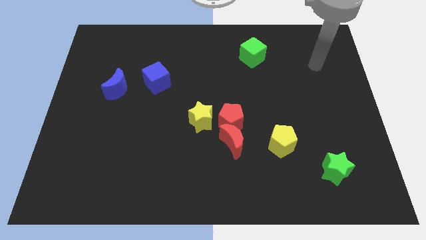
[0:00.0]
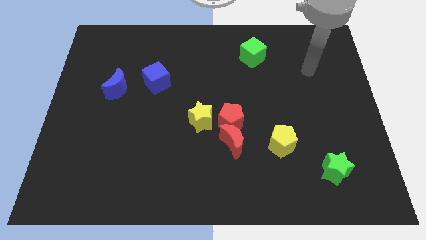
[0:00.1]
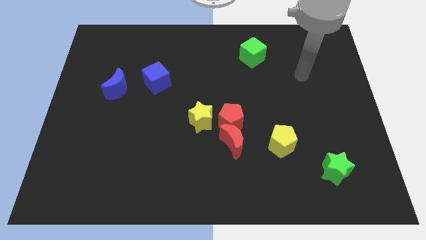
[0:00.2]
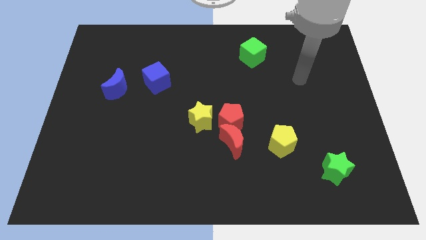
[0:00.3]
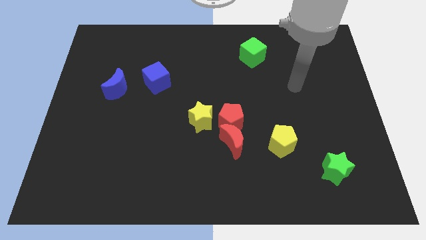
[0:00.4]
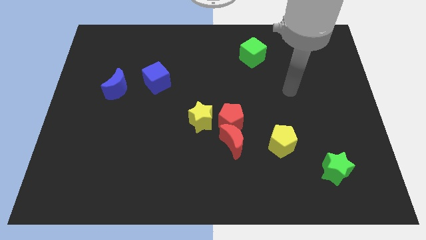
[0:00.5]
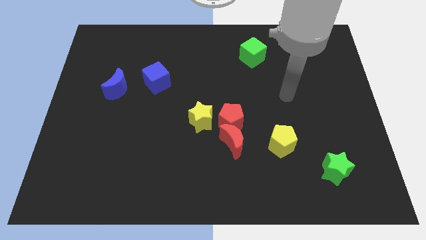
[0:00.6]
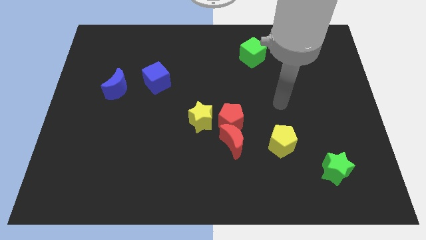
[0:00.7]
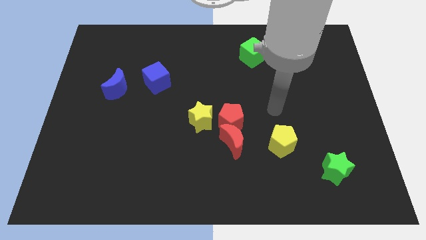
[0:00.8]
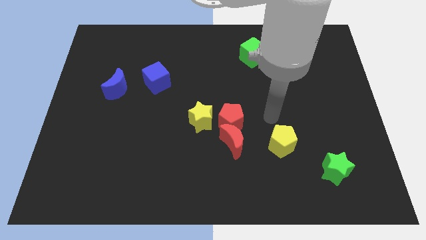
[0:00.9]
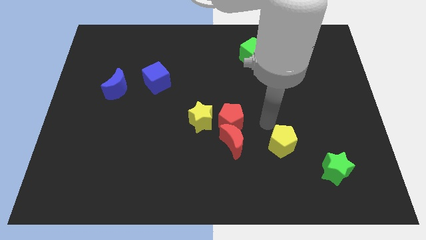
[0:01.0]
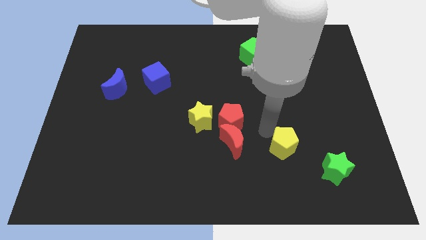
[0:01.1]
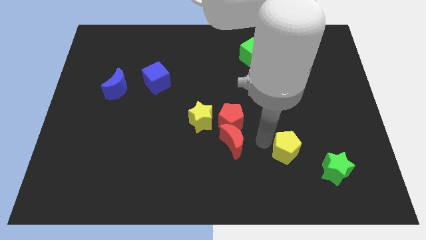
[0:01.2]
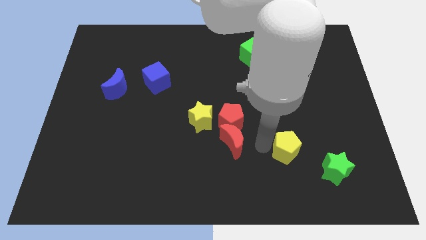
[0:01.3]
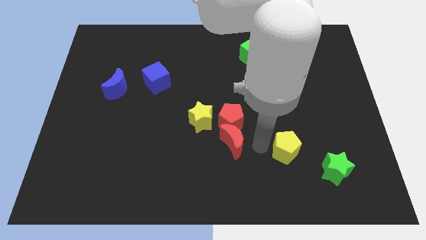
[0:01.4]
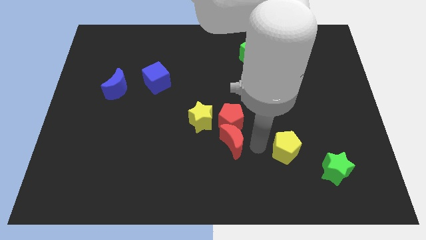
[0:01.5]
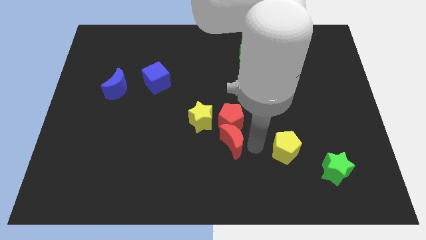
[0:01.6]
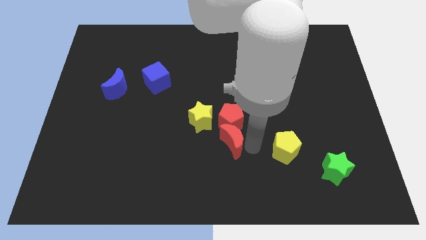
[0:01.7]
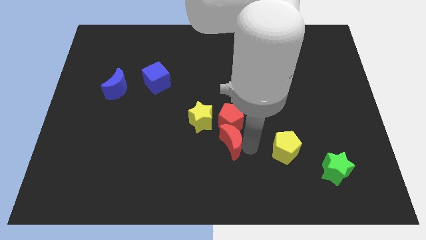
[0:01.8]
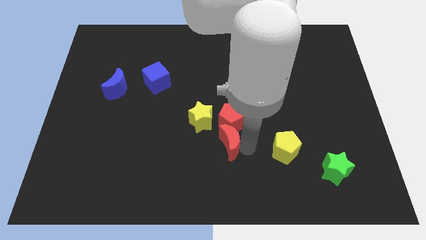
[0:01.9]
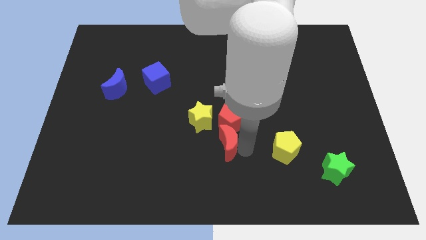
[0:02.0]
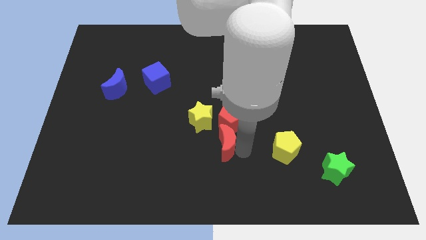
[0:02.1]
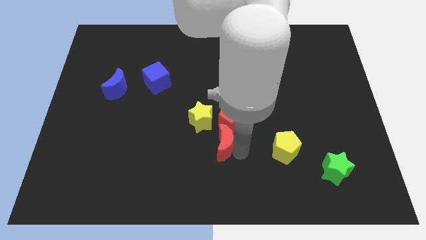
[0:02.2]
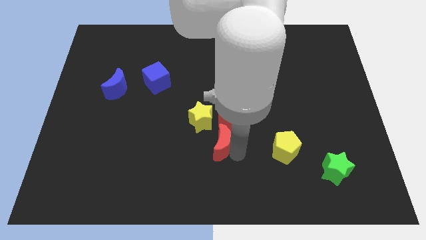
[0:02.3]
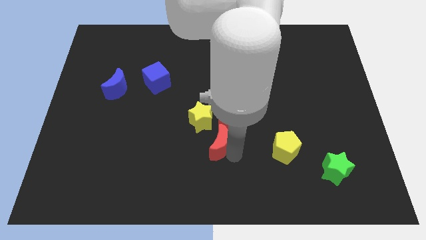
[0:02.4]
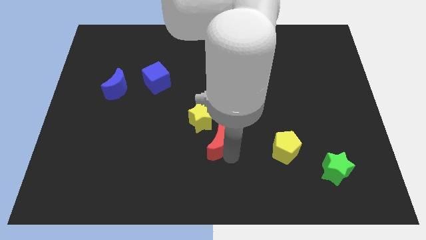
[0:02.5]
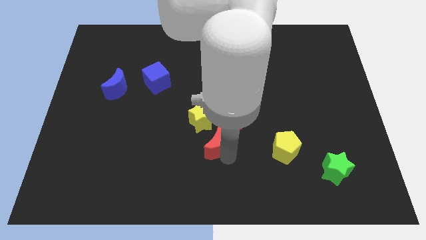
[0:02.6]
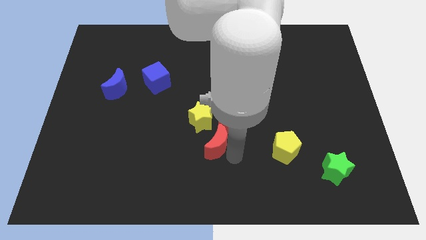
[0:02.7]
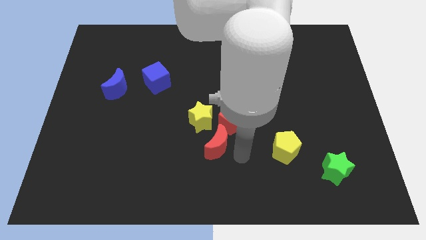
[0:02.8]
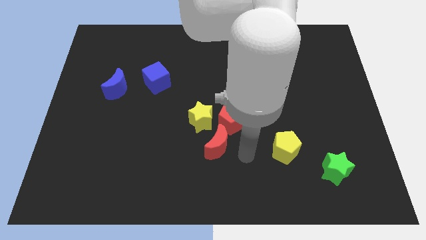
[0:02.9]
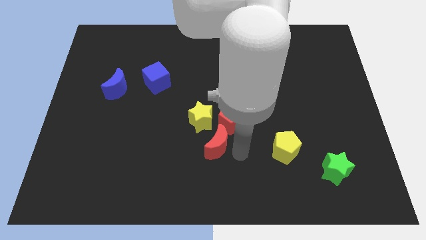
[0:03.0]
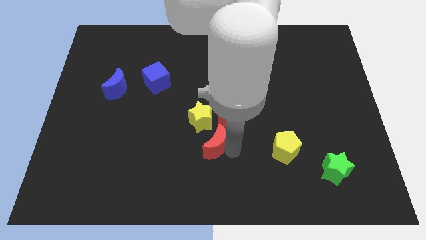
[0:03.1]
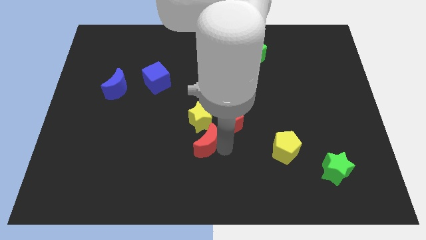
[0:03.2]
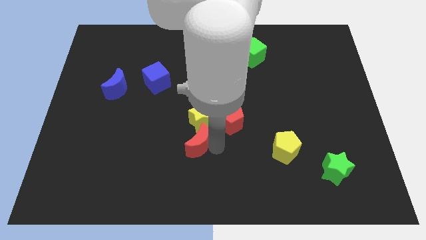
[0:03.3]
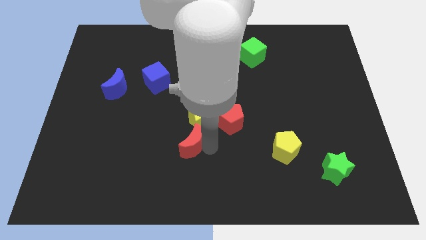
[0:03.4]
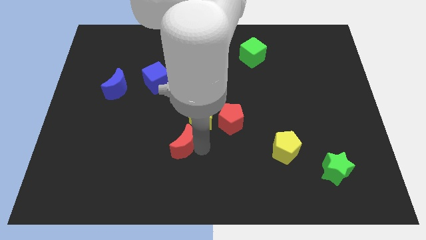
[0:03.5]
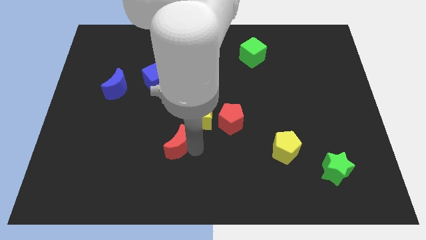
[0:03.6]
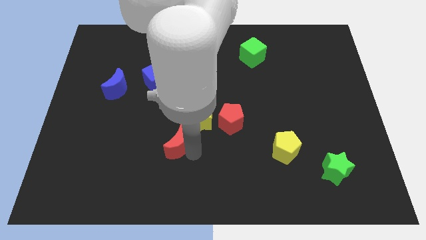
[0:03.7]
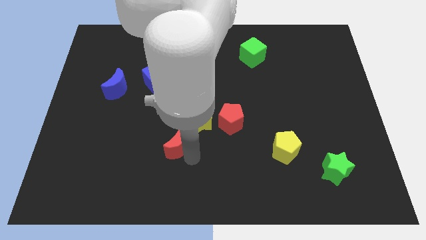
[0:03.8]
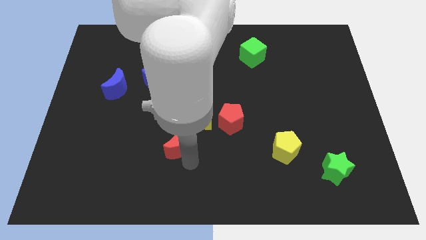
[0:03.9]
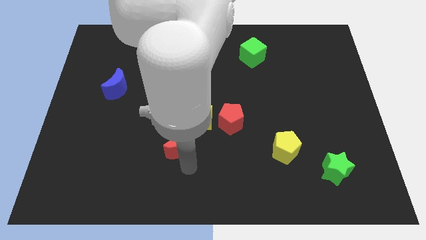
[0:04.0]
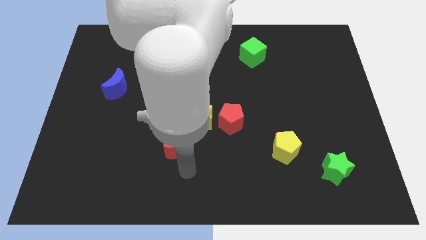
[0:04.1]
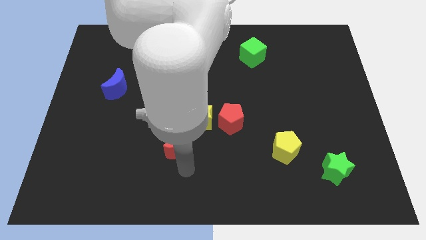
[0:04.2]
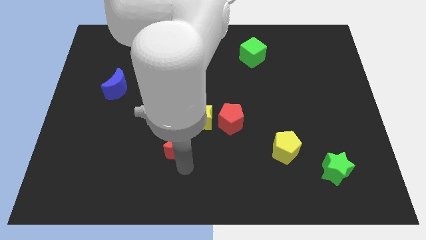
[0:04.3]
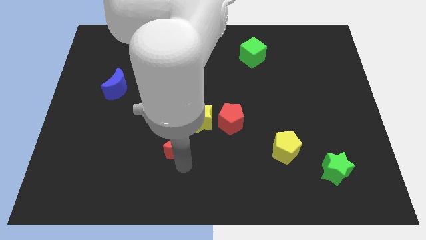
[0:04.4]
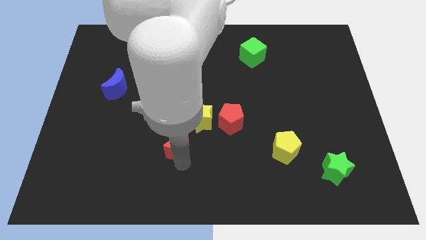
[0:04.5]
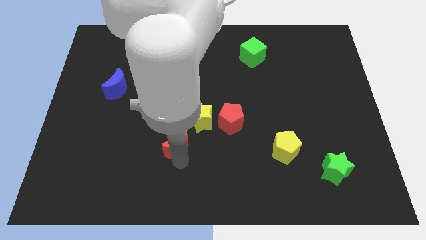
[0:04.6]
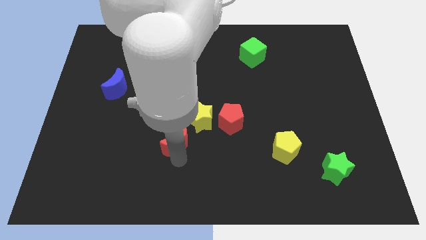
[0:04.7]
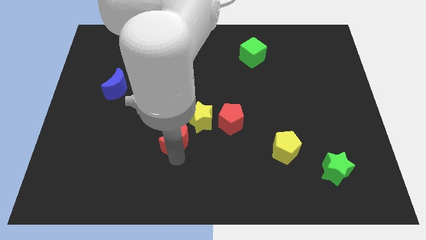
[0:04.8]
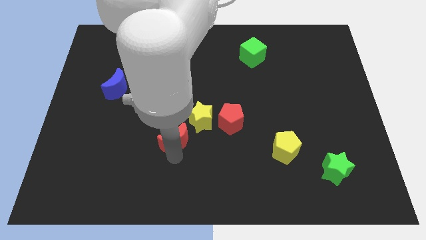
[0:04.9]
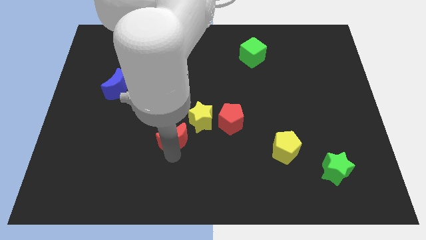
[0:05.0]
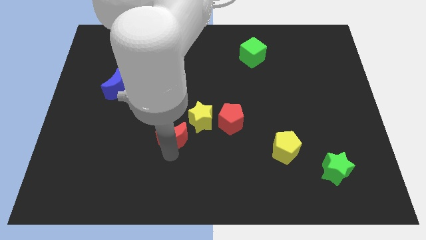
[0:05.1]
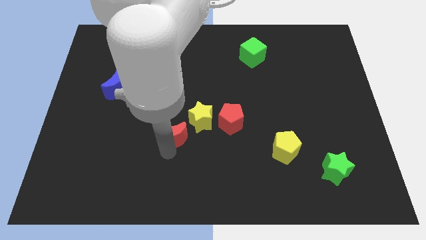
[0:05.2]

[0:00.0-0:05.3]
push the red moon to the left of the yellow star

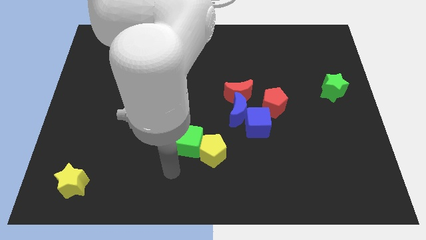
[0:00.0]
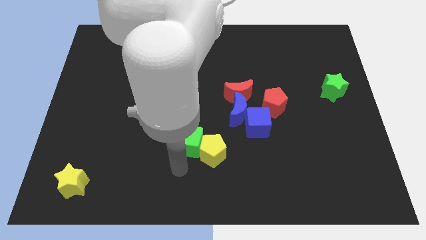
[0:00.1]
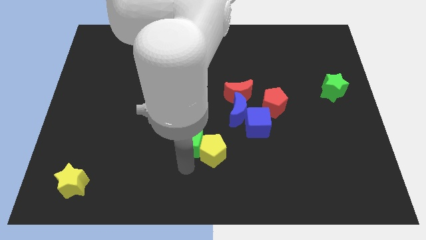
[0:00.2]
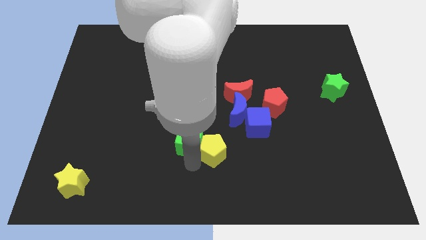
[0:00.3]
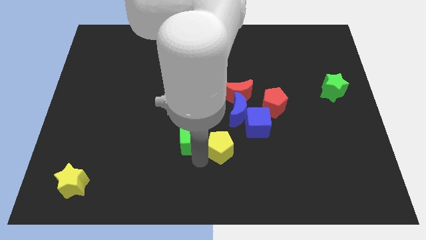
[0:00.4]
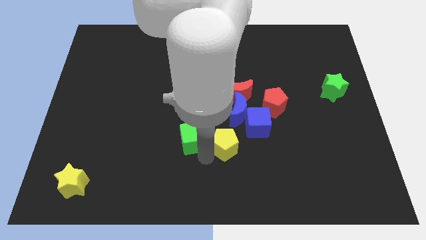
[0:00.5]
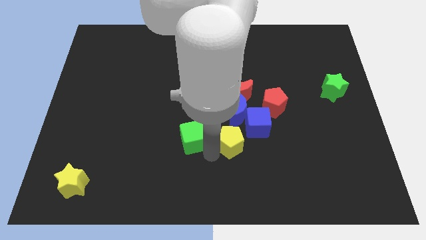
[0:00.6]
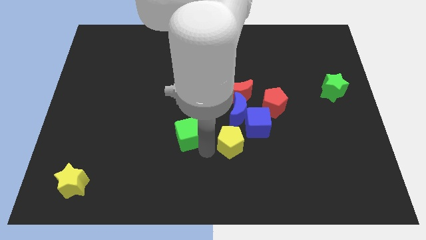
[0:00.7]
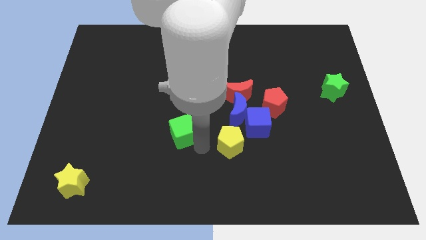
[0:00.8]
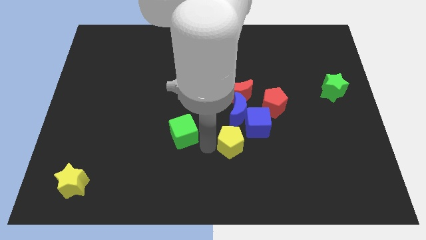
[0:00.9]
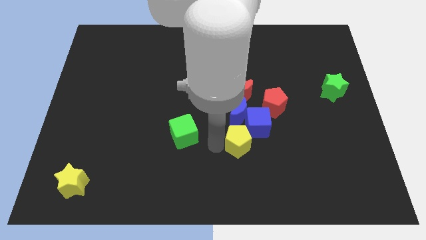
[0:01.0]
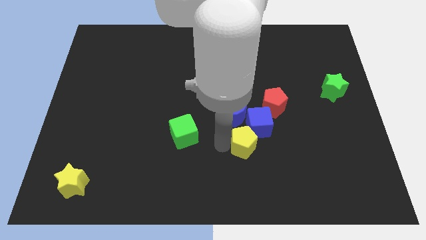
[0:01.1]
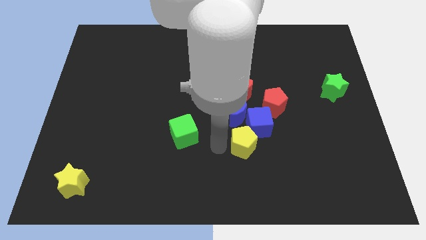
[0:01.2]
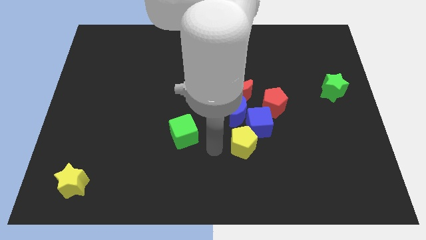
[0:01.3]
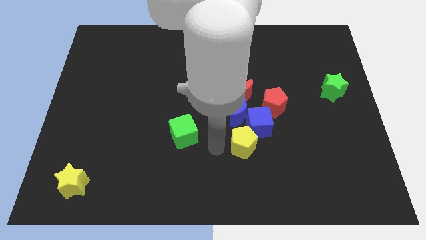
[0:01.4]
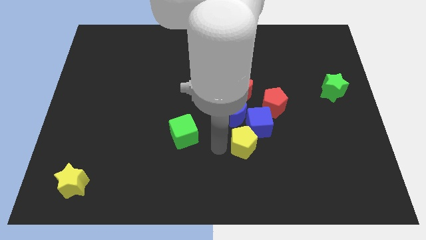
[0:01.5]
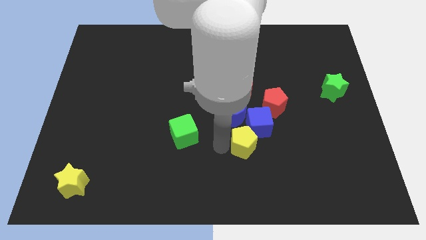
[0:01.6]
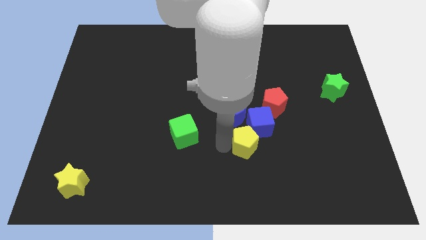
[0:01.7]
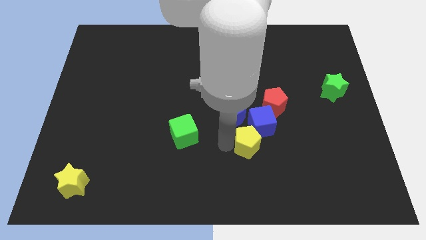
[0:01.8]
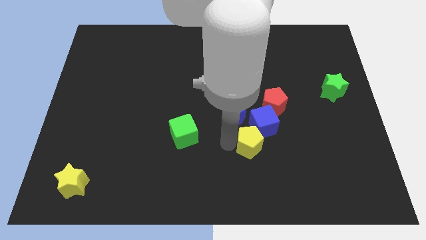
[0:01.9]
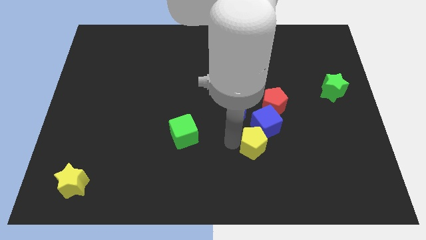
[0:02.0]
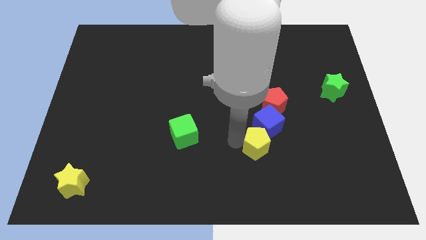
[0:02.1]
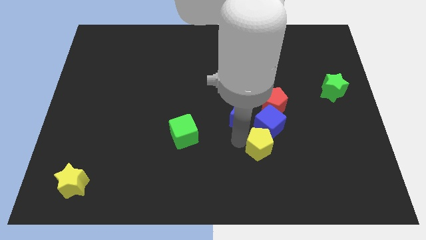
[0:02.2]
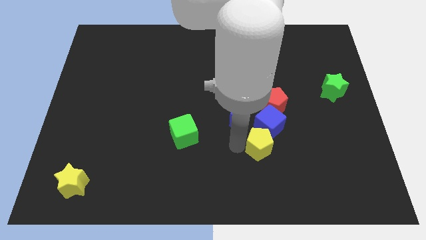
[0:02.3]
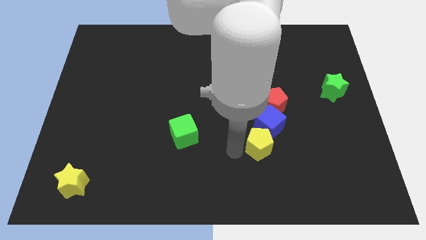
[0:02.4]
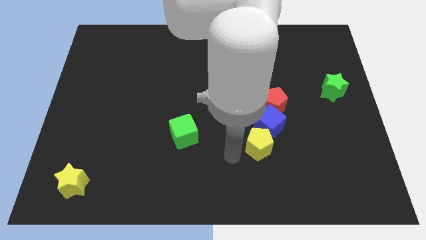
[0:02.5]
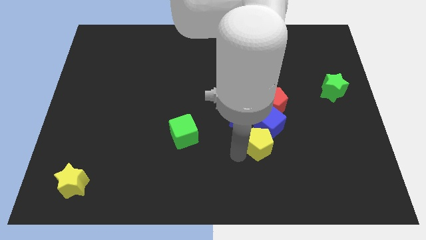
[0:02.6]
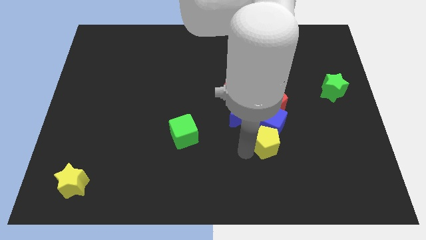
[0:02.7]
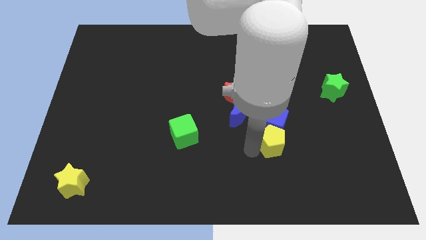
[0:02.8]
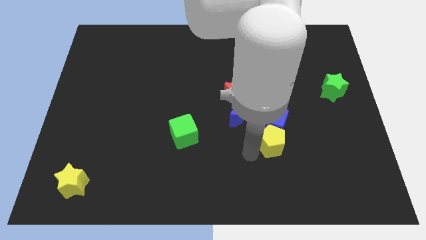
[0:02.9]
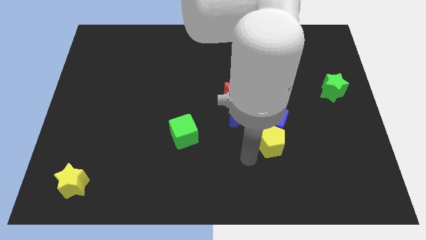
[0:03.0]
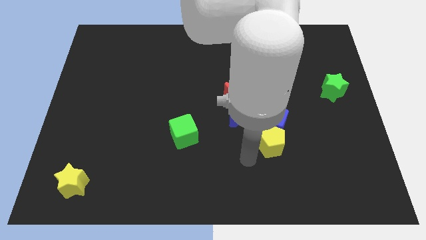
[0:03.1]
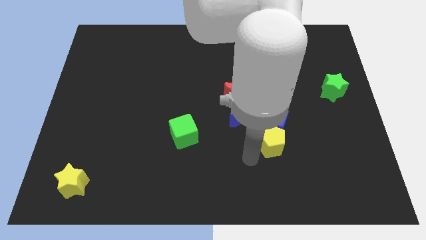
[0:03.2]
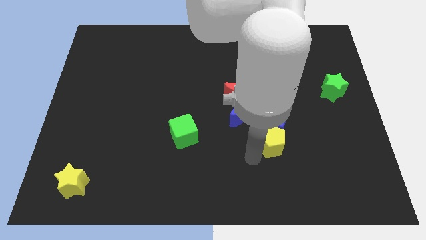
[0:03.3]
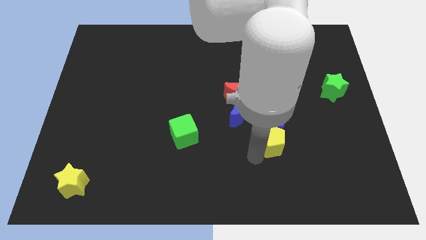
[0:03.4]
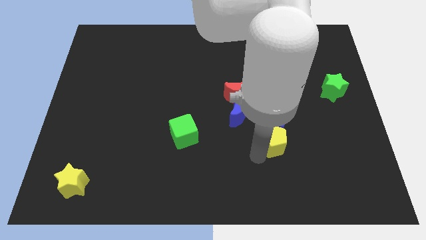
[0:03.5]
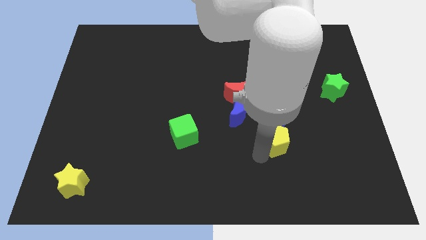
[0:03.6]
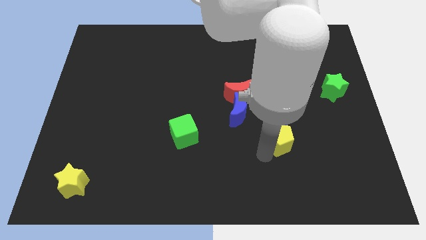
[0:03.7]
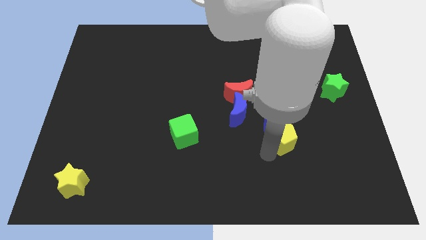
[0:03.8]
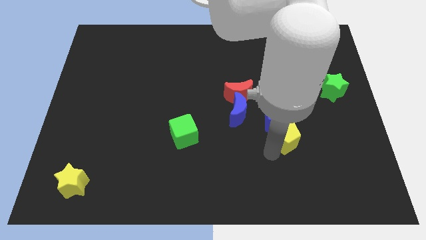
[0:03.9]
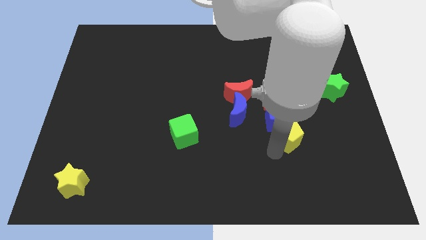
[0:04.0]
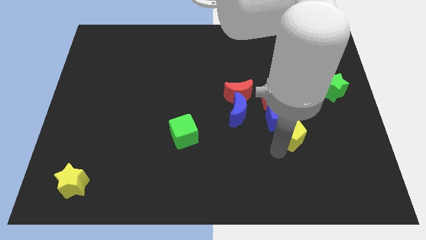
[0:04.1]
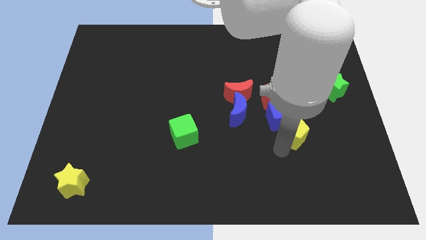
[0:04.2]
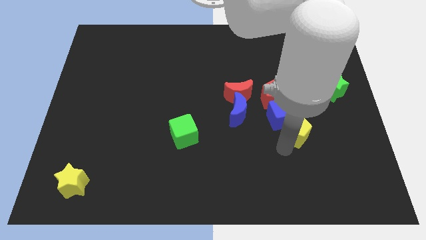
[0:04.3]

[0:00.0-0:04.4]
move the yellow pentagon to the bottom right side of the red pentagon
